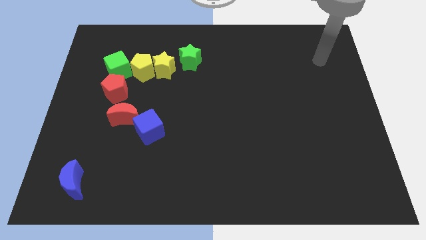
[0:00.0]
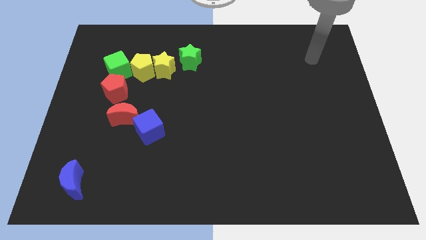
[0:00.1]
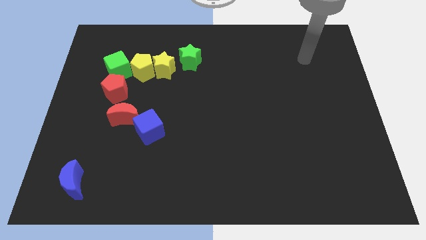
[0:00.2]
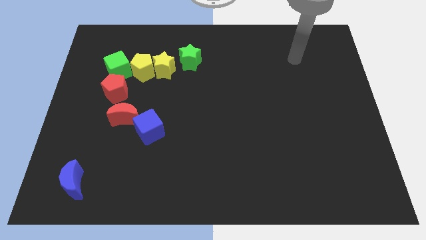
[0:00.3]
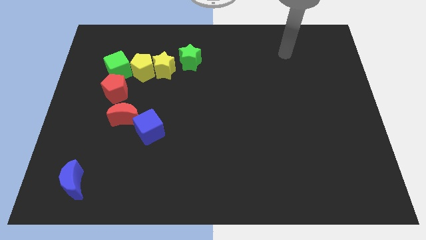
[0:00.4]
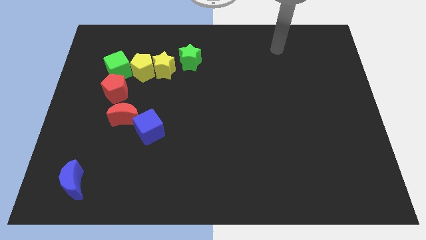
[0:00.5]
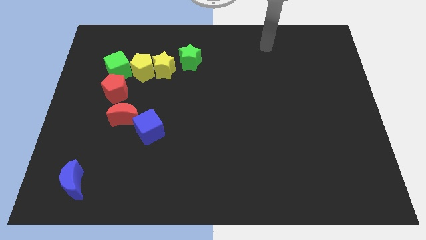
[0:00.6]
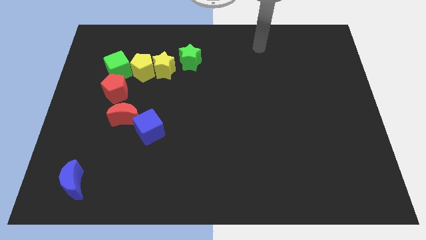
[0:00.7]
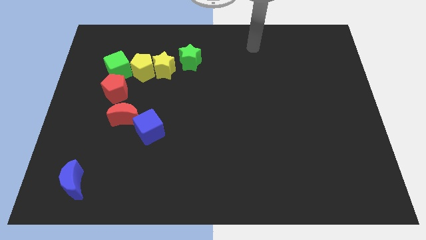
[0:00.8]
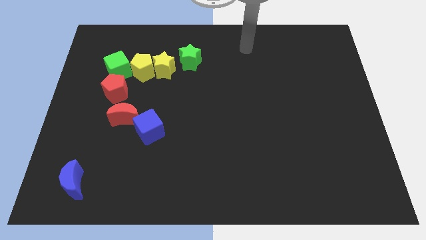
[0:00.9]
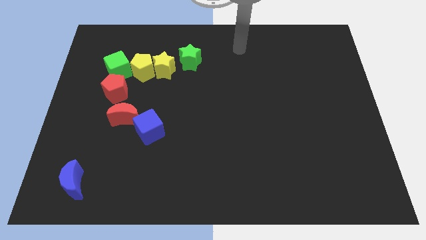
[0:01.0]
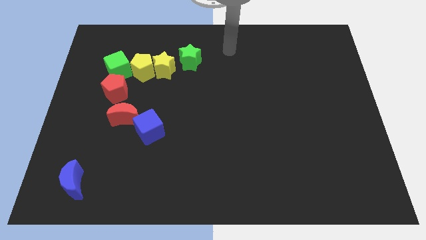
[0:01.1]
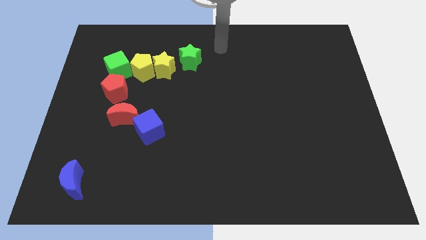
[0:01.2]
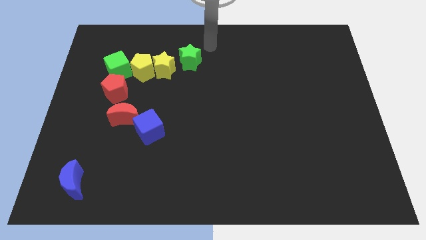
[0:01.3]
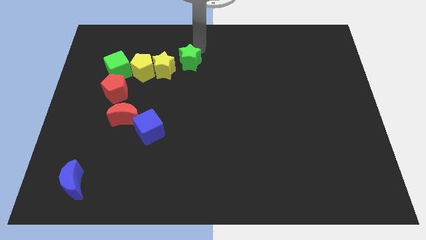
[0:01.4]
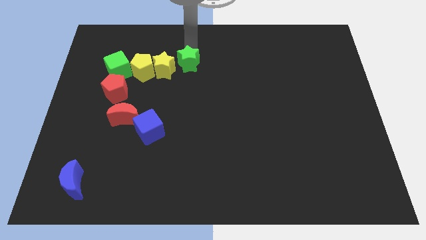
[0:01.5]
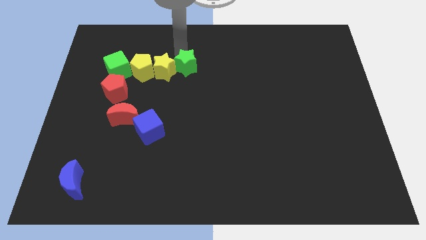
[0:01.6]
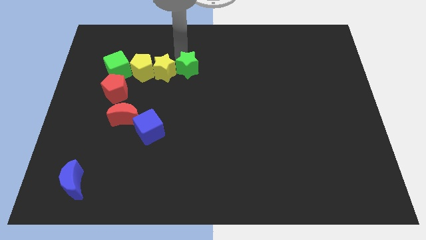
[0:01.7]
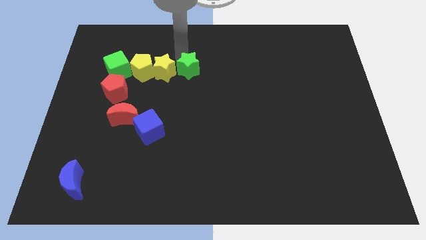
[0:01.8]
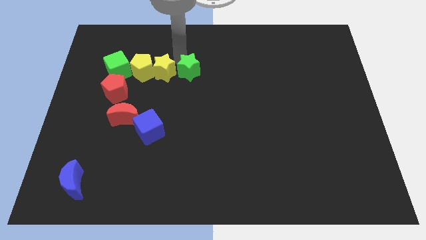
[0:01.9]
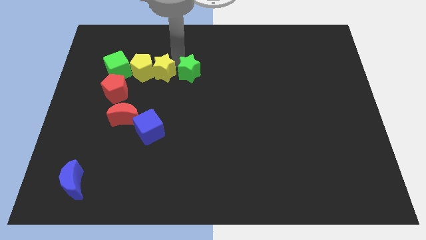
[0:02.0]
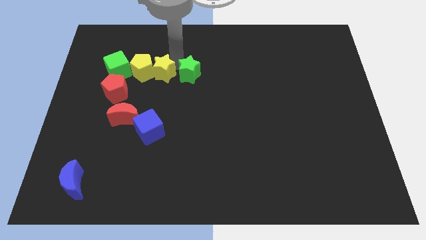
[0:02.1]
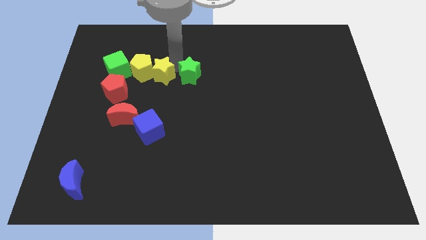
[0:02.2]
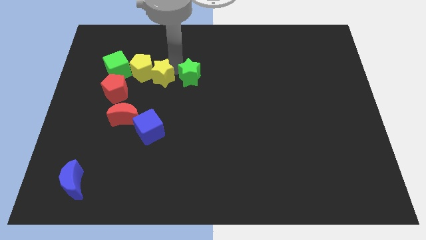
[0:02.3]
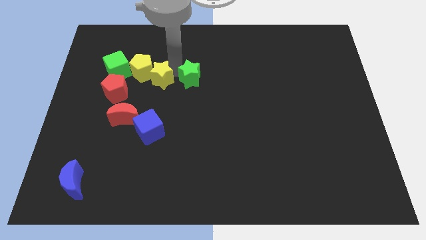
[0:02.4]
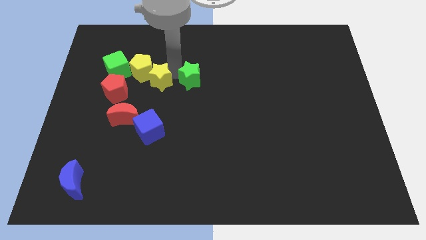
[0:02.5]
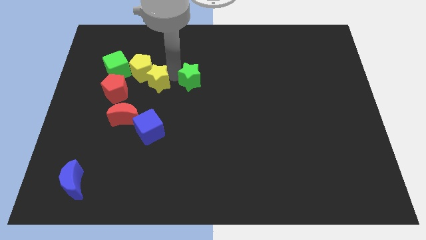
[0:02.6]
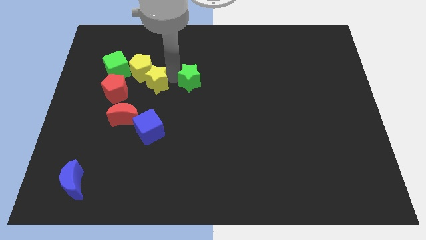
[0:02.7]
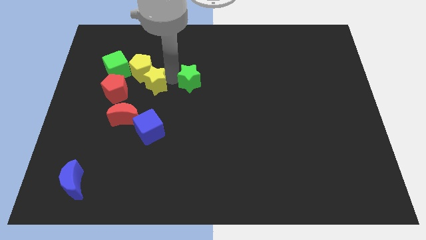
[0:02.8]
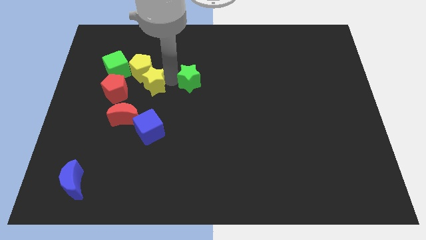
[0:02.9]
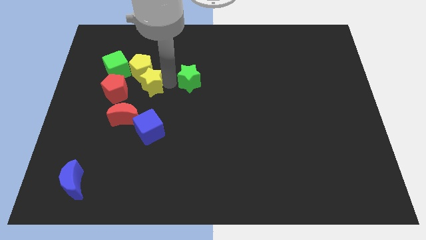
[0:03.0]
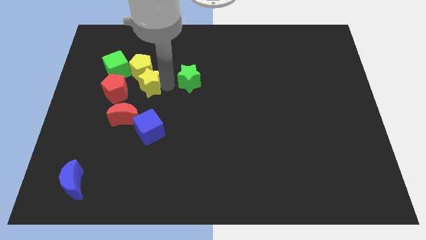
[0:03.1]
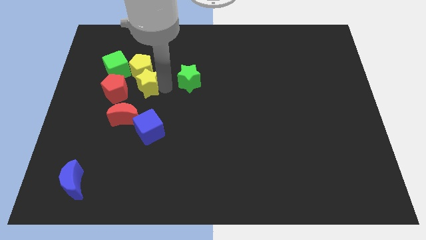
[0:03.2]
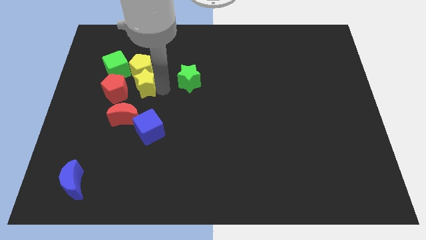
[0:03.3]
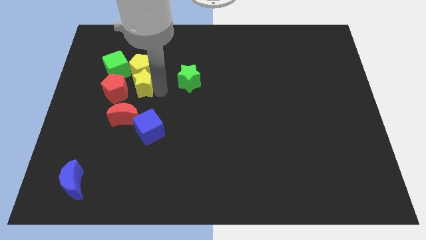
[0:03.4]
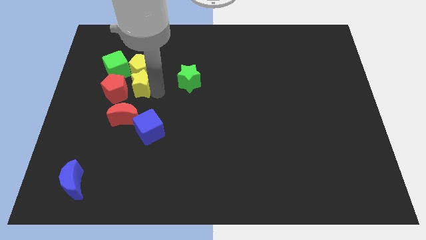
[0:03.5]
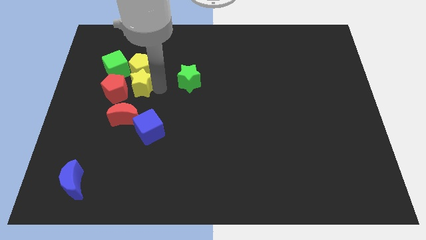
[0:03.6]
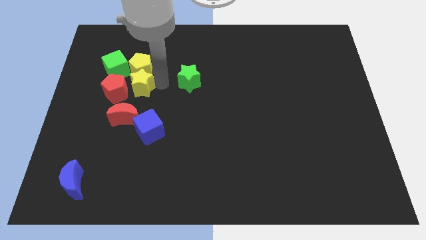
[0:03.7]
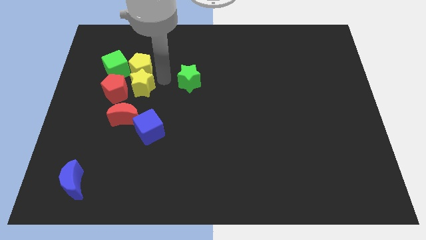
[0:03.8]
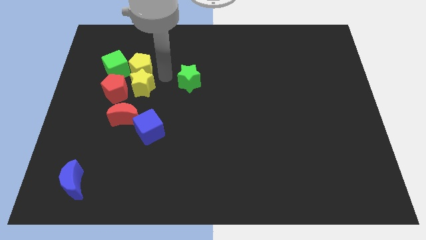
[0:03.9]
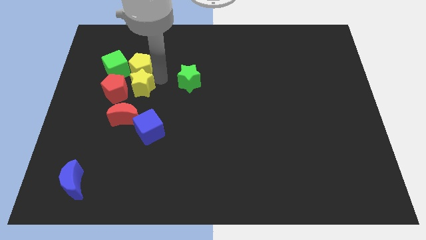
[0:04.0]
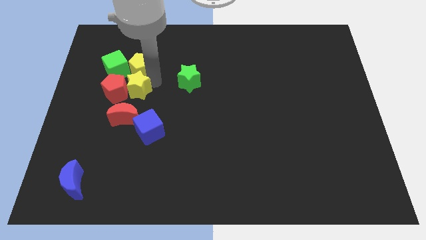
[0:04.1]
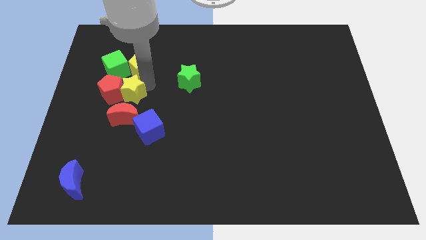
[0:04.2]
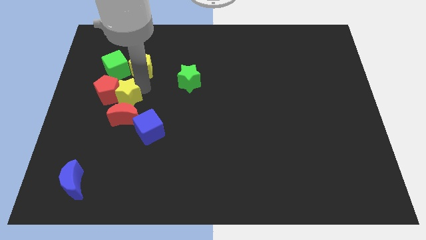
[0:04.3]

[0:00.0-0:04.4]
separate the yellow star from the yellow pentagon and green star

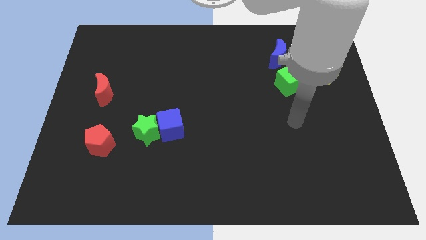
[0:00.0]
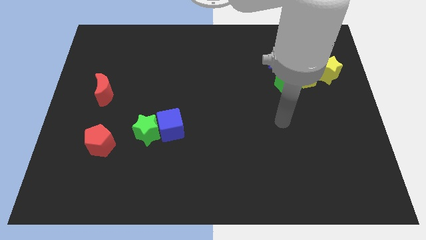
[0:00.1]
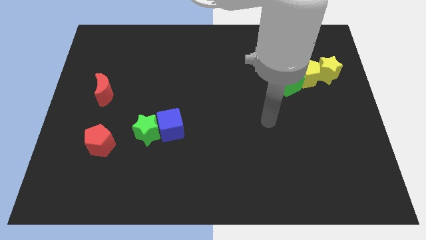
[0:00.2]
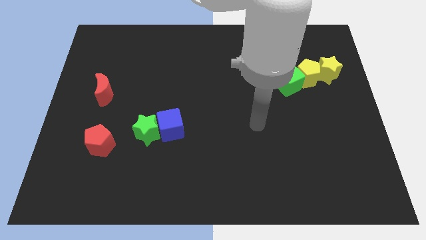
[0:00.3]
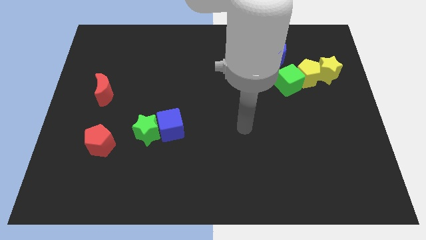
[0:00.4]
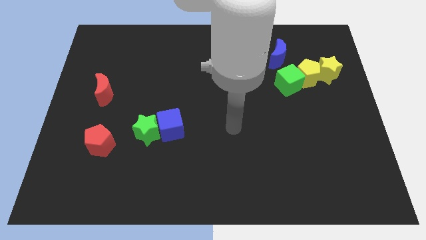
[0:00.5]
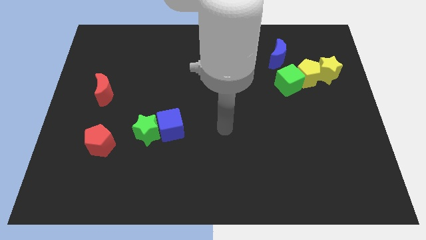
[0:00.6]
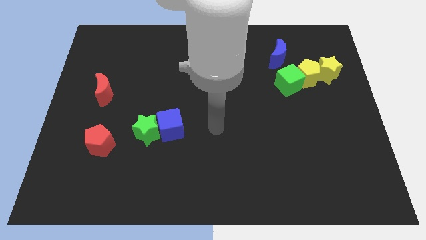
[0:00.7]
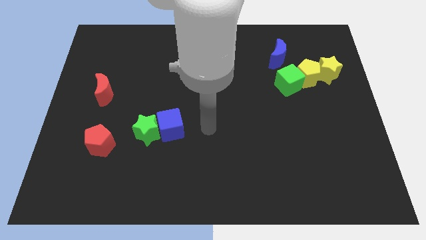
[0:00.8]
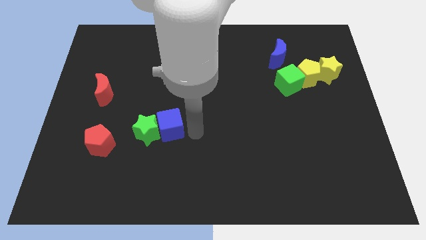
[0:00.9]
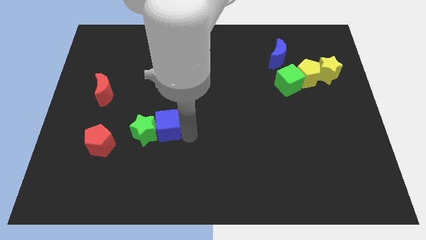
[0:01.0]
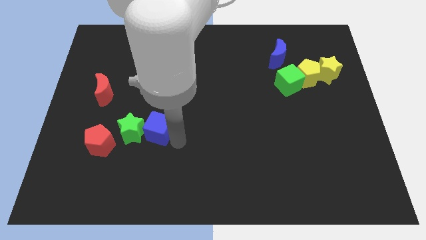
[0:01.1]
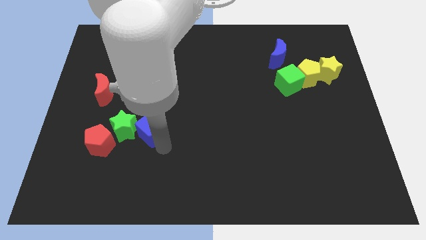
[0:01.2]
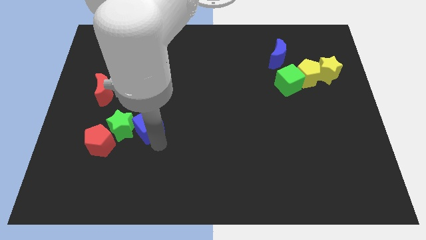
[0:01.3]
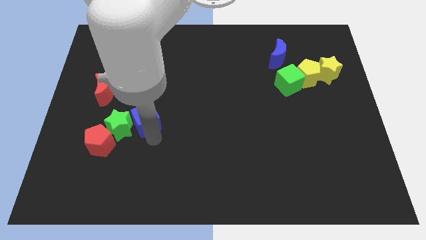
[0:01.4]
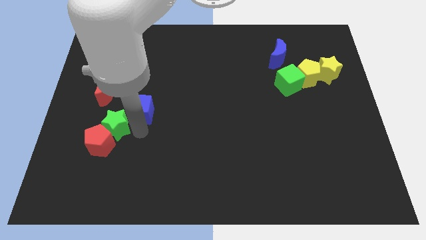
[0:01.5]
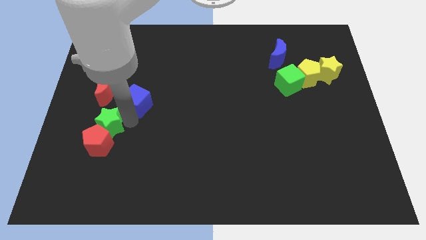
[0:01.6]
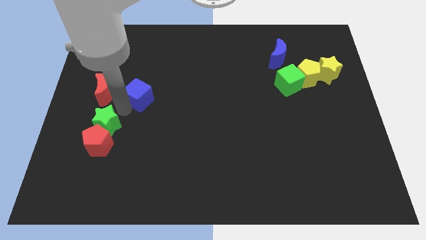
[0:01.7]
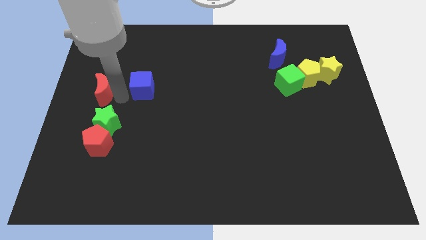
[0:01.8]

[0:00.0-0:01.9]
pull the blue cube apart from the green star

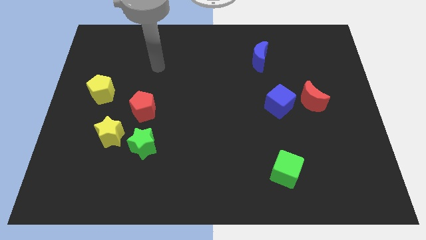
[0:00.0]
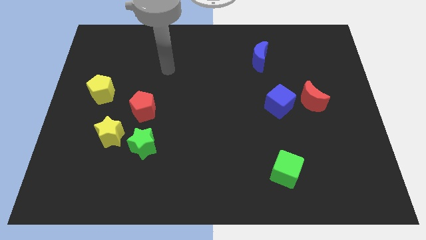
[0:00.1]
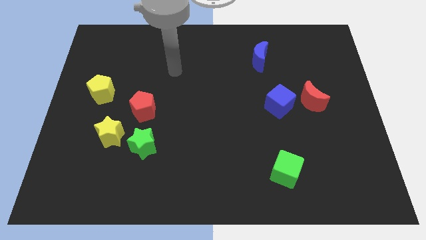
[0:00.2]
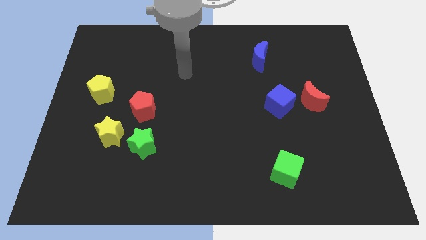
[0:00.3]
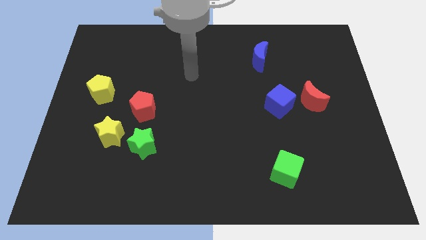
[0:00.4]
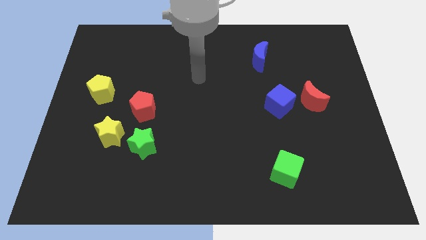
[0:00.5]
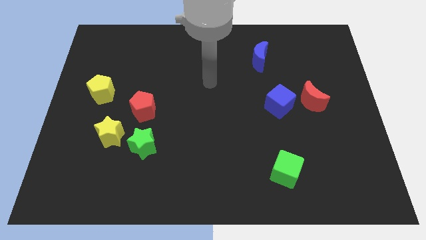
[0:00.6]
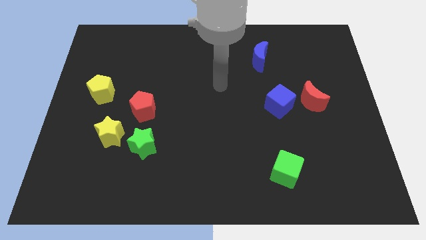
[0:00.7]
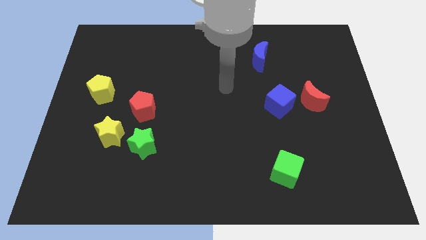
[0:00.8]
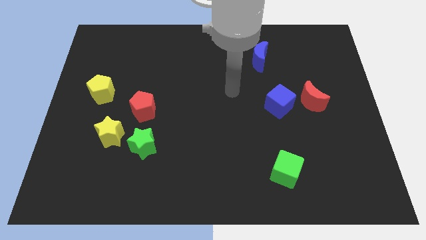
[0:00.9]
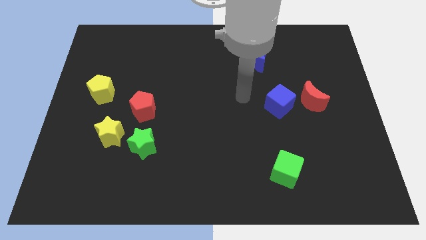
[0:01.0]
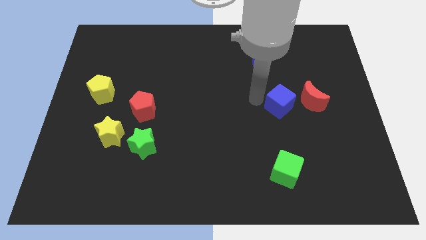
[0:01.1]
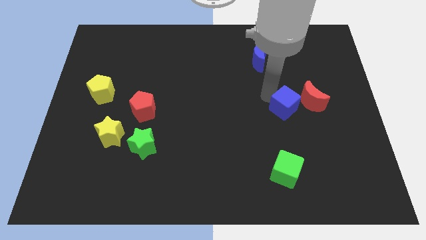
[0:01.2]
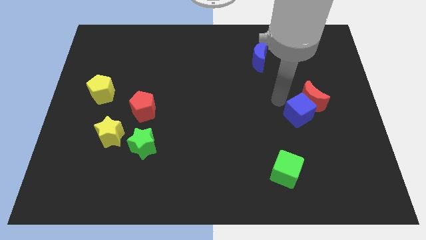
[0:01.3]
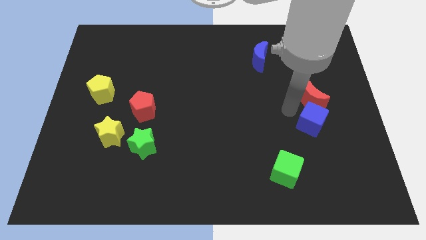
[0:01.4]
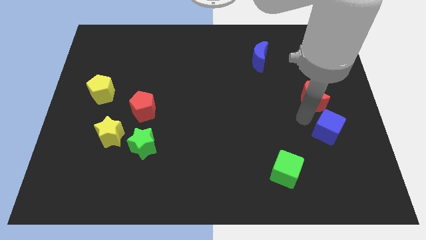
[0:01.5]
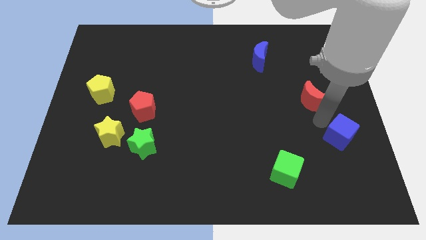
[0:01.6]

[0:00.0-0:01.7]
separate the red moon from the blue cube

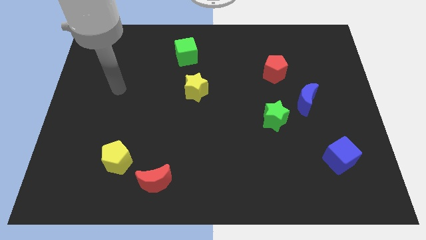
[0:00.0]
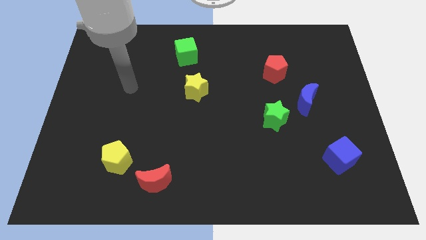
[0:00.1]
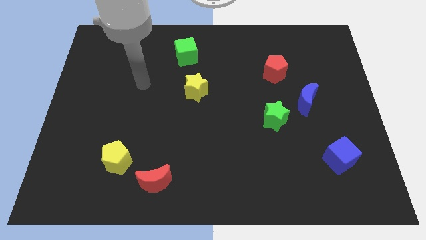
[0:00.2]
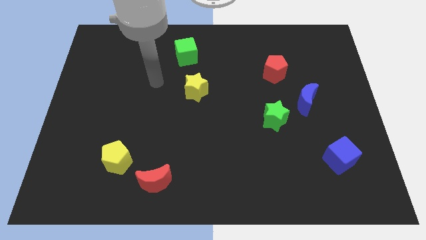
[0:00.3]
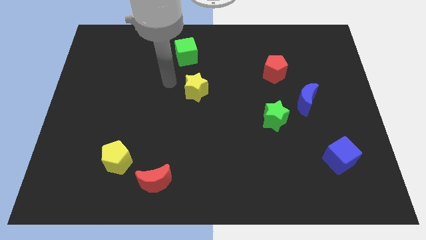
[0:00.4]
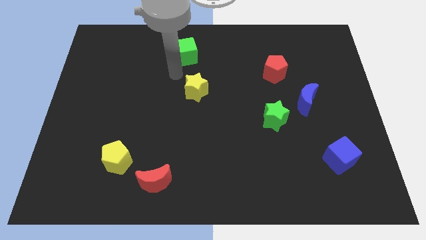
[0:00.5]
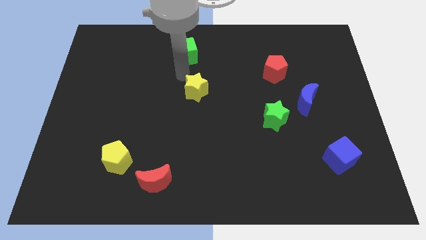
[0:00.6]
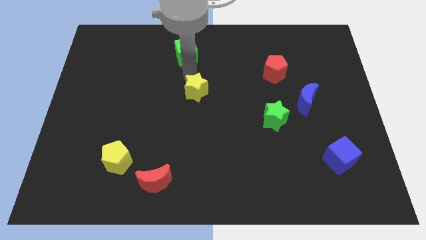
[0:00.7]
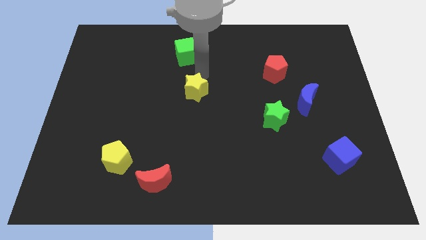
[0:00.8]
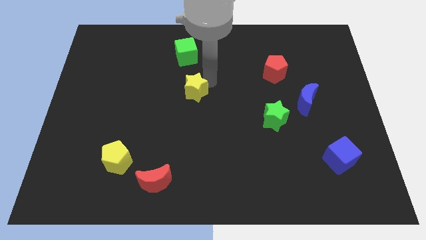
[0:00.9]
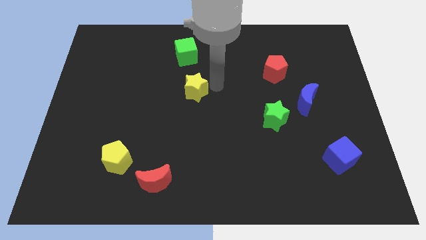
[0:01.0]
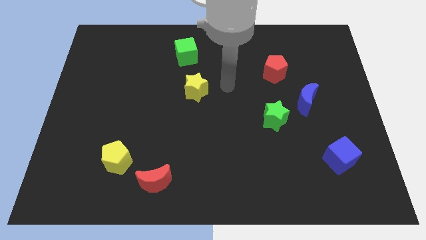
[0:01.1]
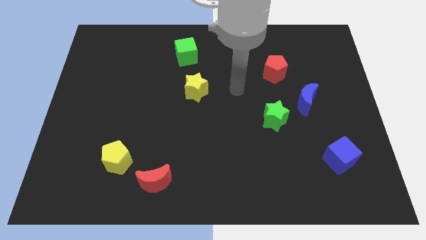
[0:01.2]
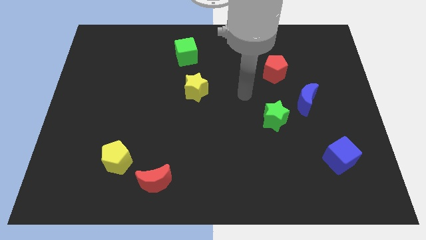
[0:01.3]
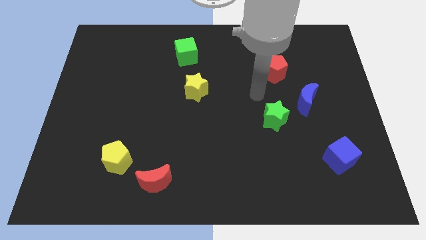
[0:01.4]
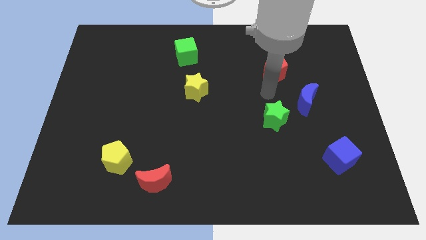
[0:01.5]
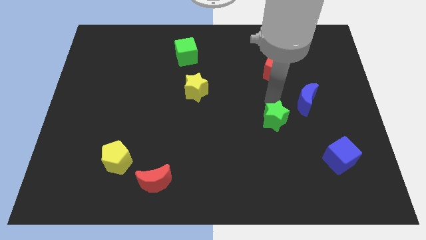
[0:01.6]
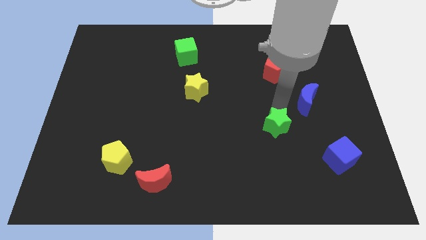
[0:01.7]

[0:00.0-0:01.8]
pull the blue moon apart from the green star
